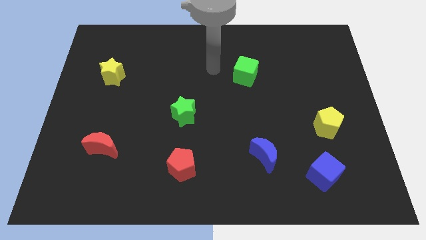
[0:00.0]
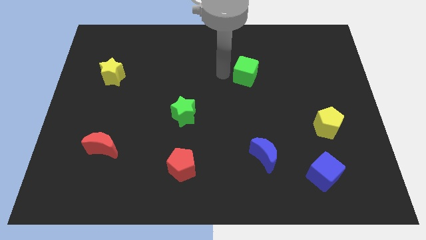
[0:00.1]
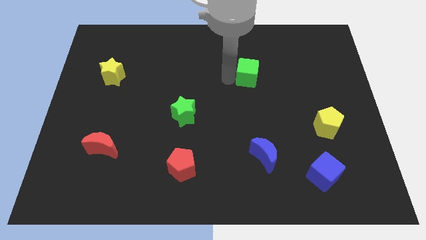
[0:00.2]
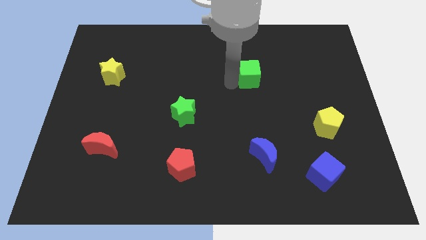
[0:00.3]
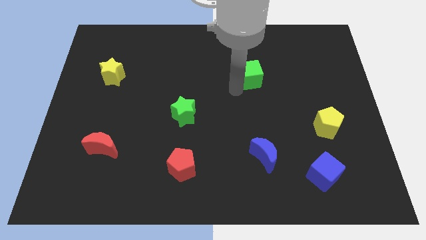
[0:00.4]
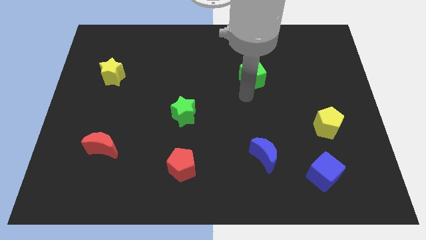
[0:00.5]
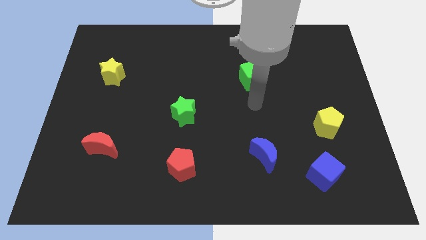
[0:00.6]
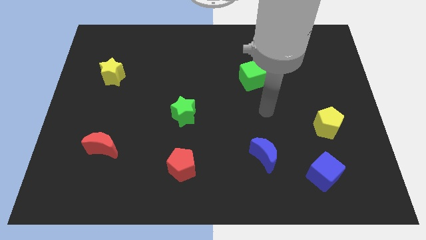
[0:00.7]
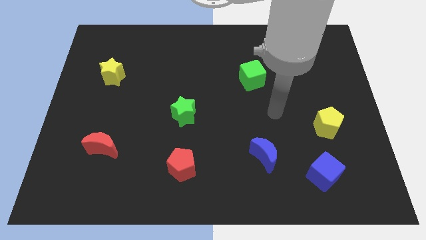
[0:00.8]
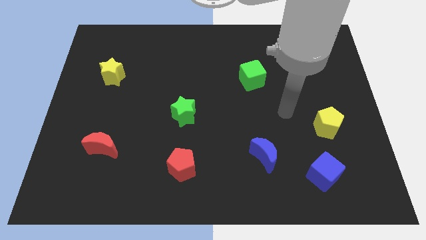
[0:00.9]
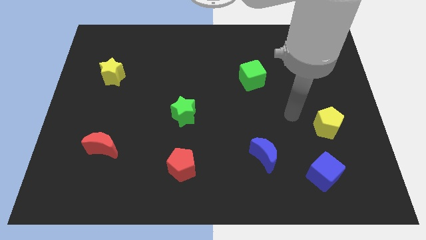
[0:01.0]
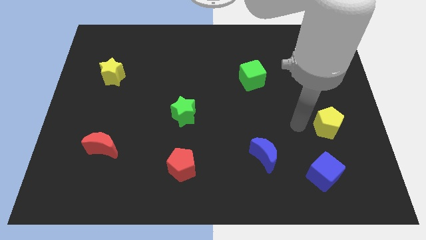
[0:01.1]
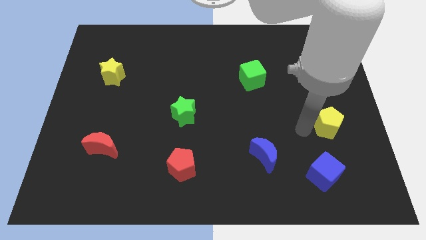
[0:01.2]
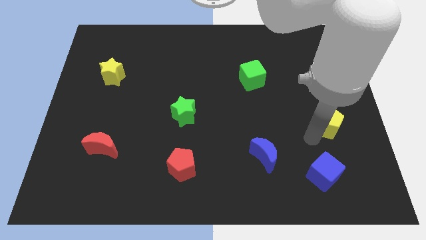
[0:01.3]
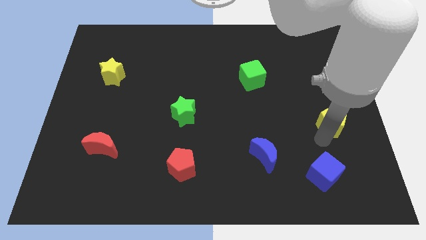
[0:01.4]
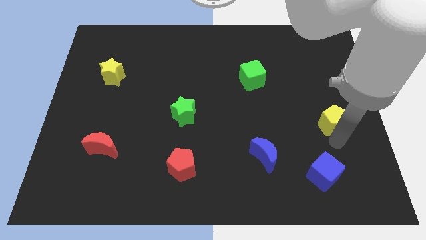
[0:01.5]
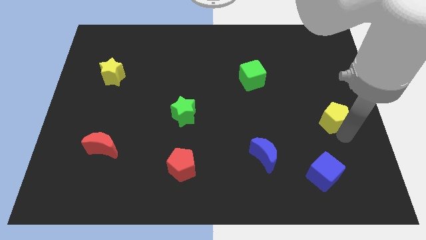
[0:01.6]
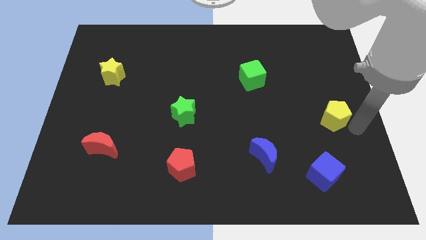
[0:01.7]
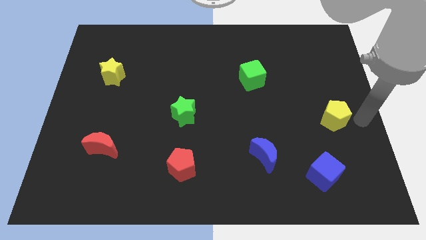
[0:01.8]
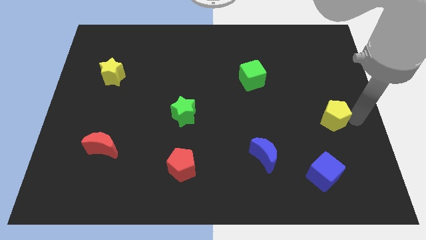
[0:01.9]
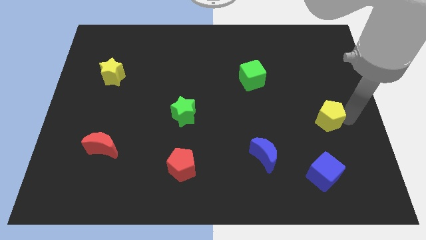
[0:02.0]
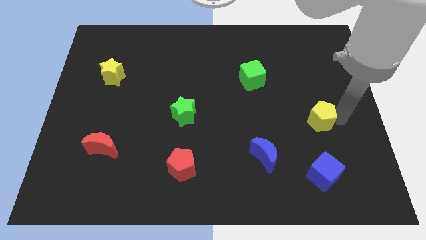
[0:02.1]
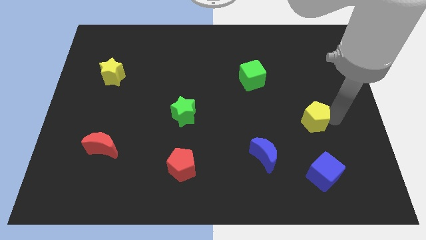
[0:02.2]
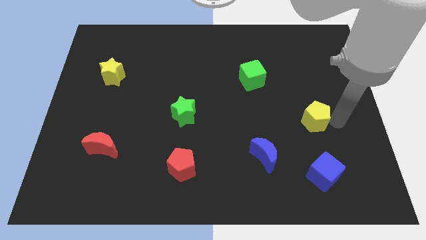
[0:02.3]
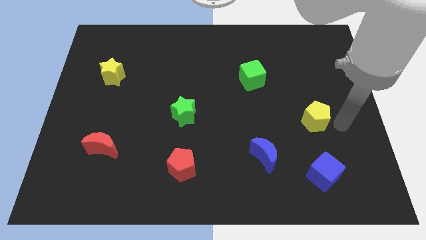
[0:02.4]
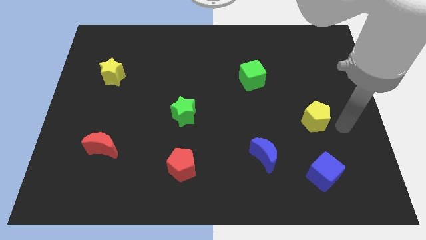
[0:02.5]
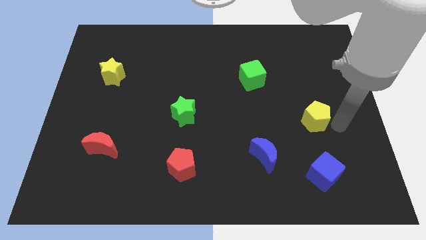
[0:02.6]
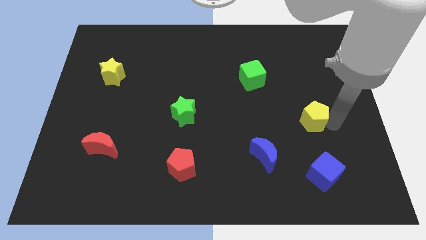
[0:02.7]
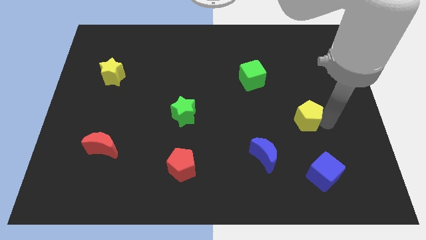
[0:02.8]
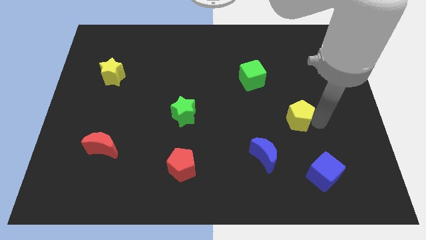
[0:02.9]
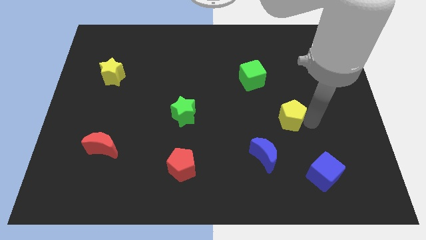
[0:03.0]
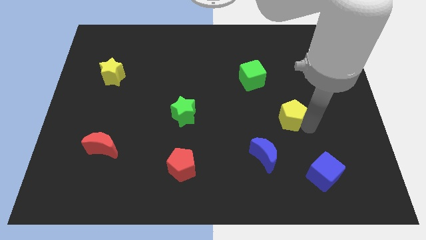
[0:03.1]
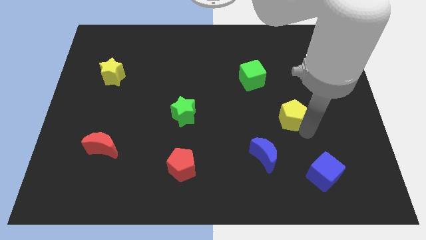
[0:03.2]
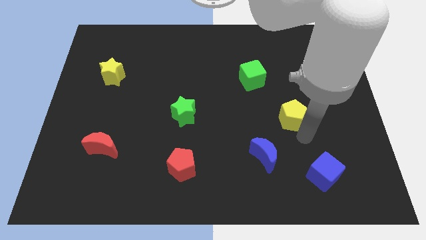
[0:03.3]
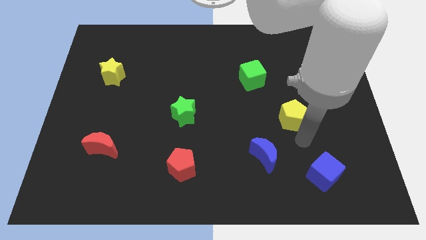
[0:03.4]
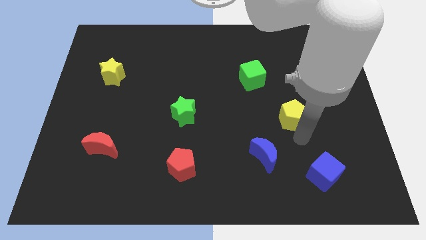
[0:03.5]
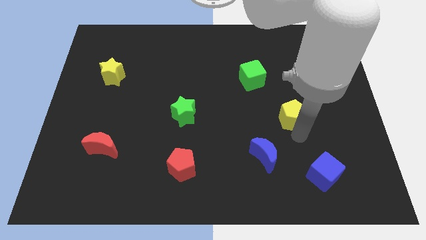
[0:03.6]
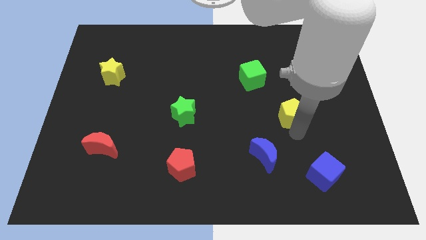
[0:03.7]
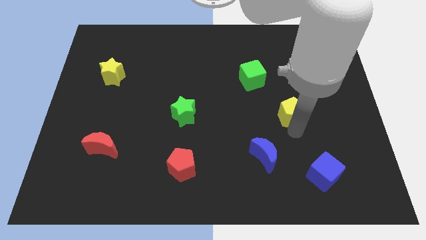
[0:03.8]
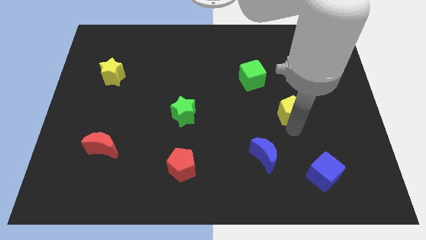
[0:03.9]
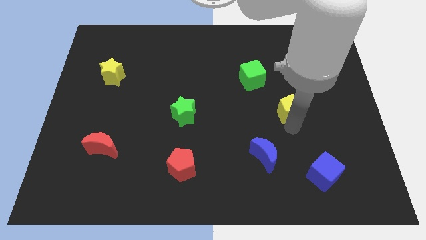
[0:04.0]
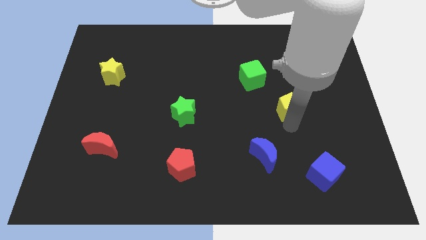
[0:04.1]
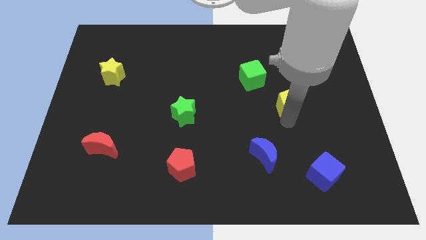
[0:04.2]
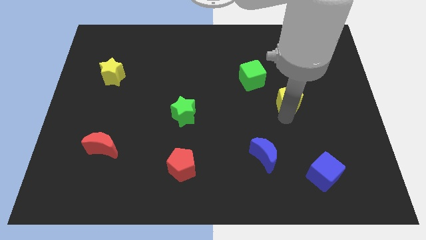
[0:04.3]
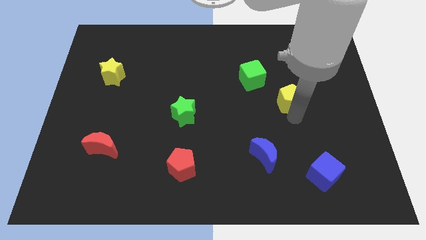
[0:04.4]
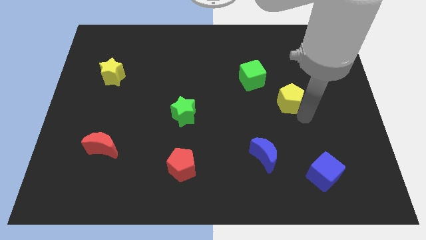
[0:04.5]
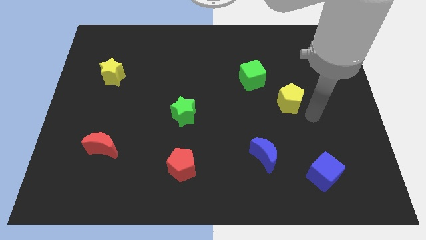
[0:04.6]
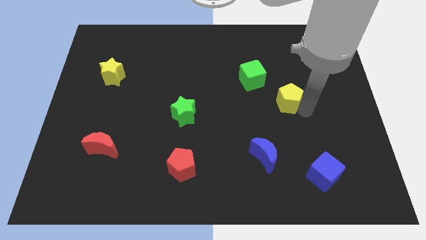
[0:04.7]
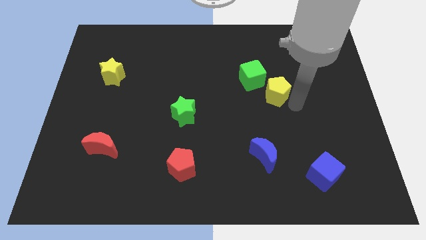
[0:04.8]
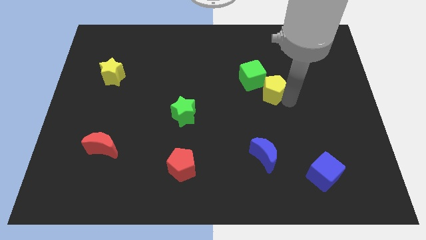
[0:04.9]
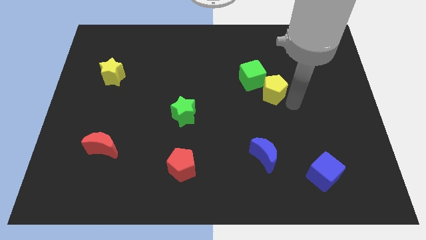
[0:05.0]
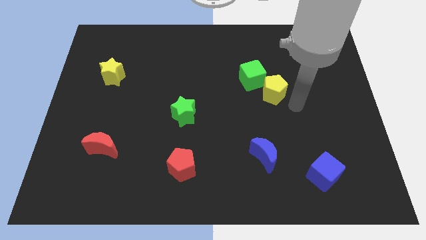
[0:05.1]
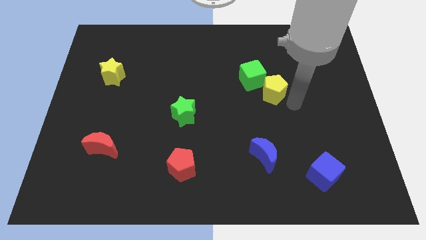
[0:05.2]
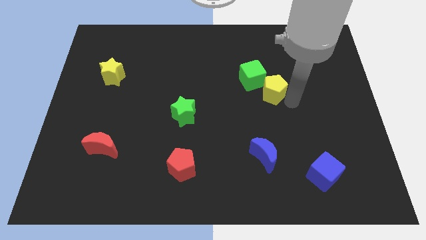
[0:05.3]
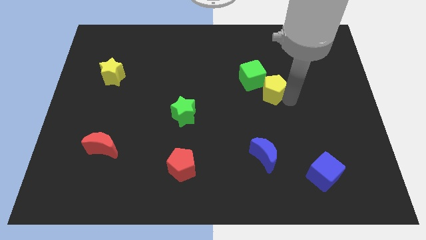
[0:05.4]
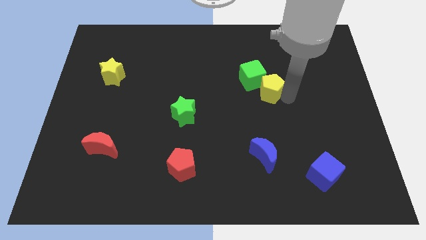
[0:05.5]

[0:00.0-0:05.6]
put the yellow pentagon to the green cube

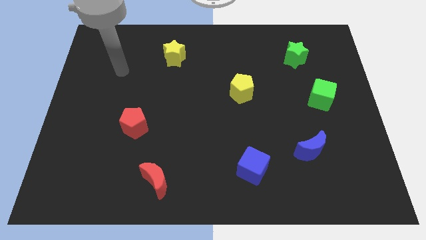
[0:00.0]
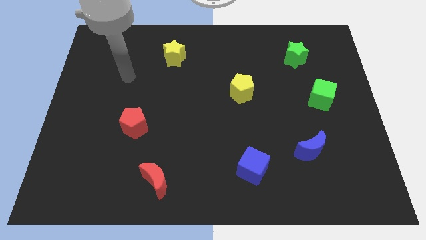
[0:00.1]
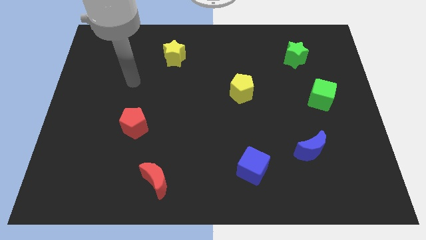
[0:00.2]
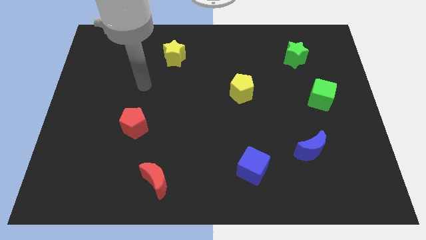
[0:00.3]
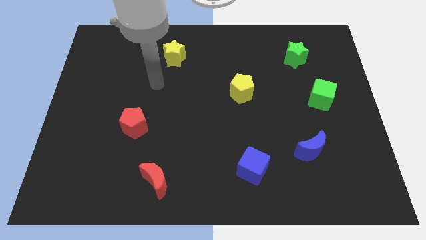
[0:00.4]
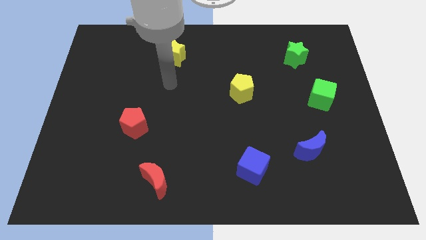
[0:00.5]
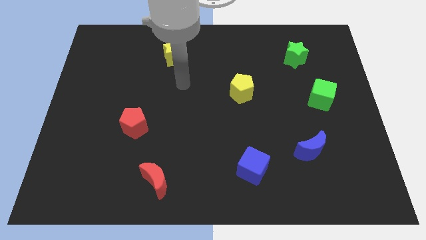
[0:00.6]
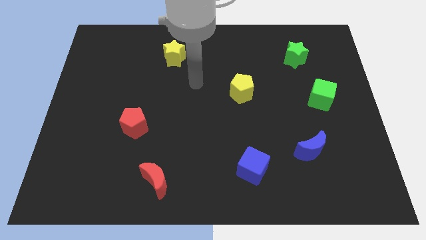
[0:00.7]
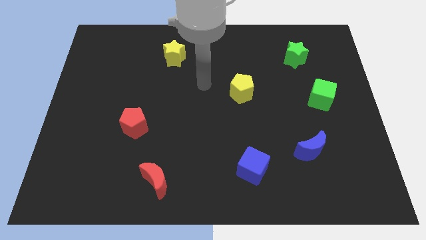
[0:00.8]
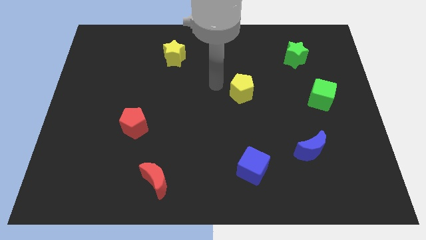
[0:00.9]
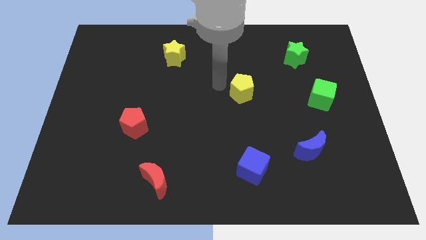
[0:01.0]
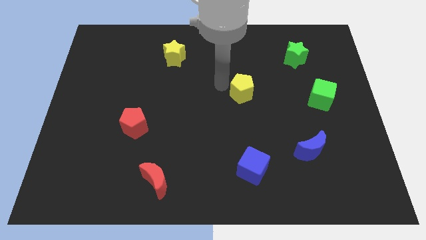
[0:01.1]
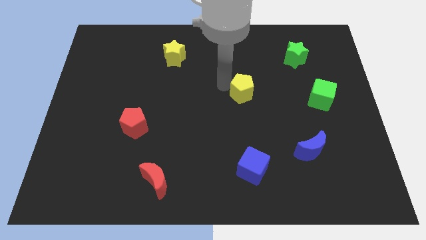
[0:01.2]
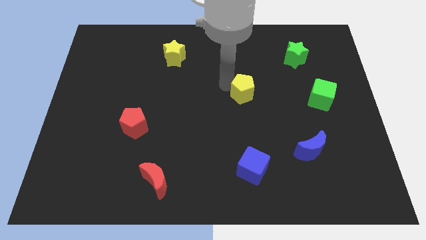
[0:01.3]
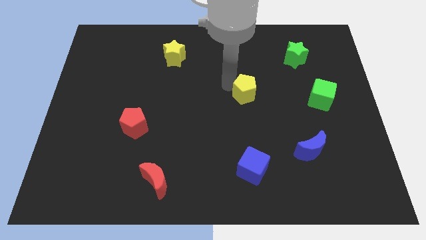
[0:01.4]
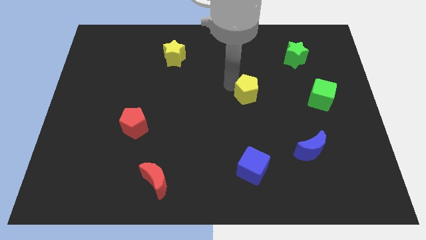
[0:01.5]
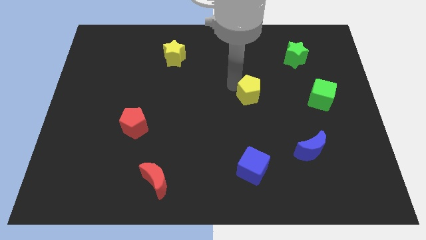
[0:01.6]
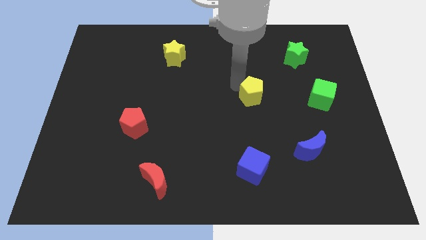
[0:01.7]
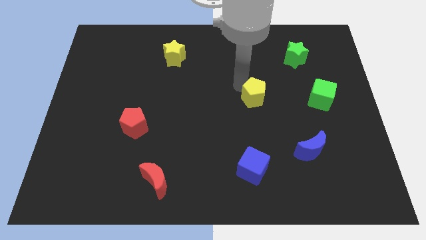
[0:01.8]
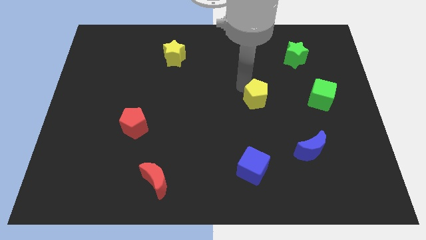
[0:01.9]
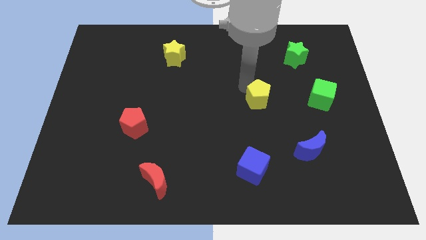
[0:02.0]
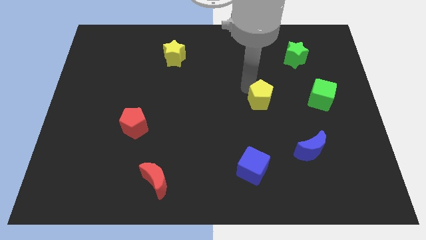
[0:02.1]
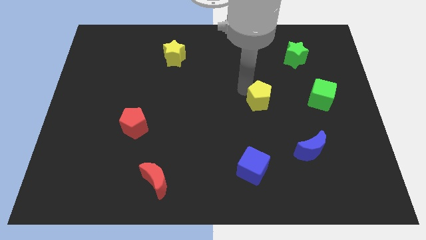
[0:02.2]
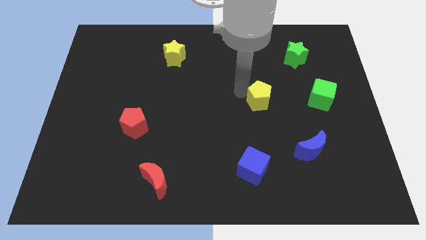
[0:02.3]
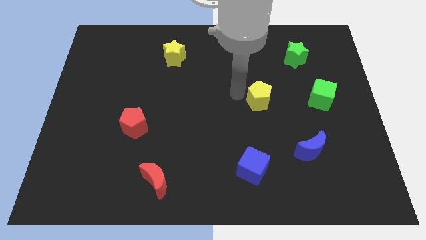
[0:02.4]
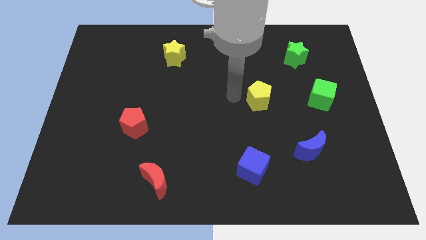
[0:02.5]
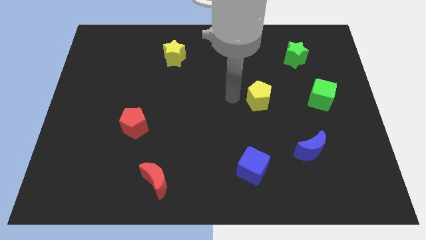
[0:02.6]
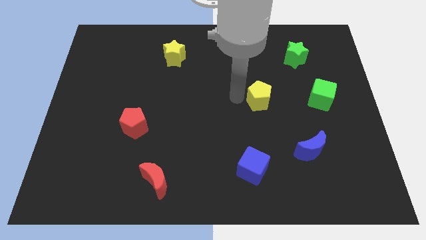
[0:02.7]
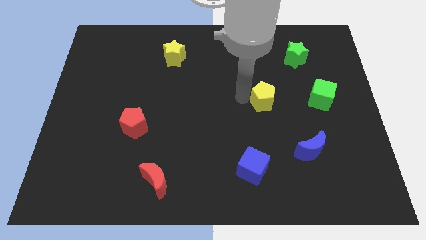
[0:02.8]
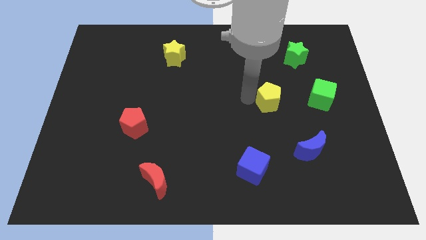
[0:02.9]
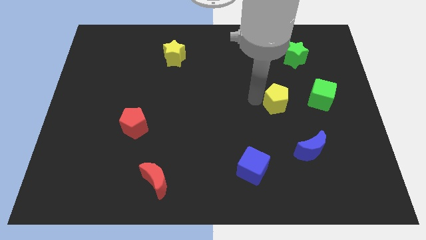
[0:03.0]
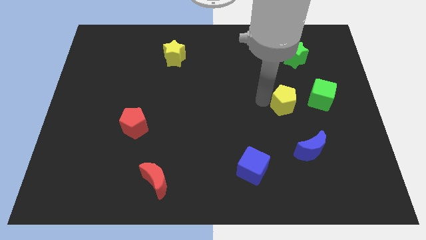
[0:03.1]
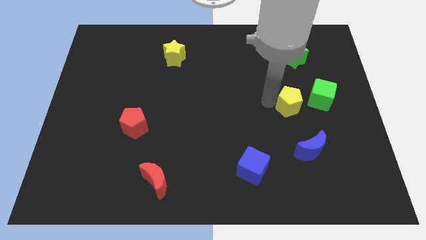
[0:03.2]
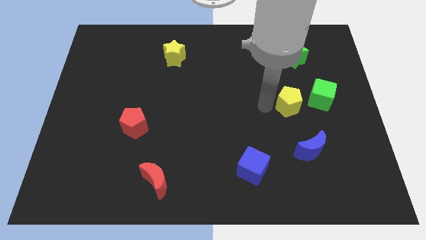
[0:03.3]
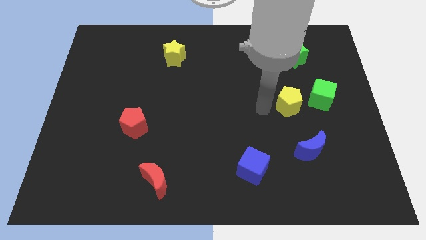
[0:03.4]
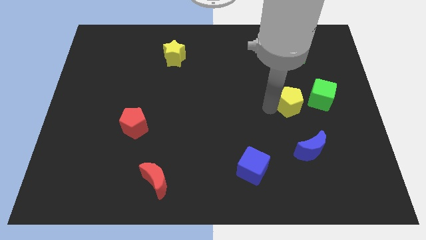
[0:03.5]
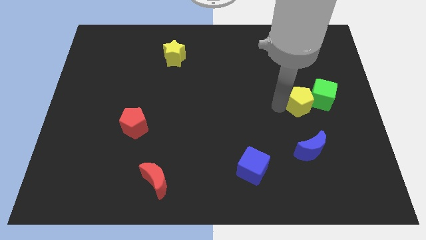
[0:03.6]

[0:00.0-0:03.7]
push the yellow pentagon close to the green cube
